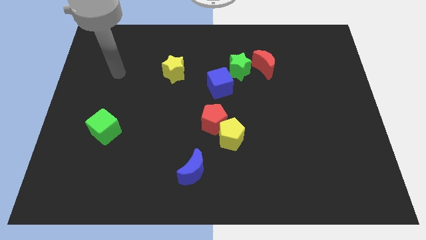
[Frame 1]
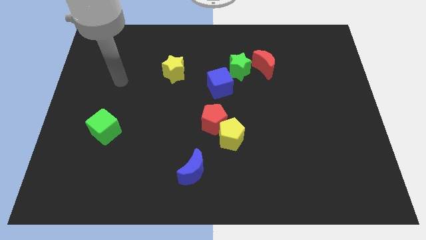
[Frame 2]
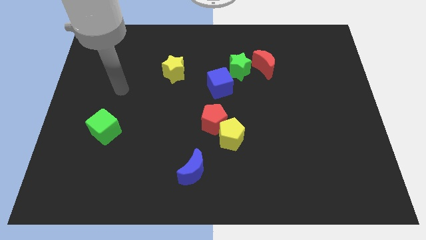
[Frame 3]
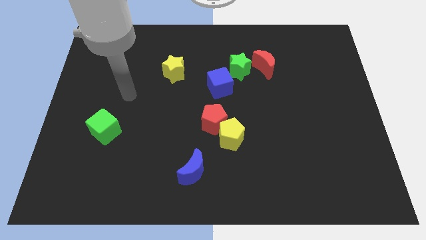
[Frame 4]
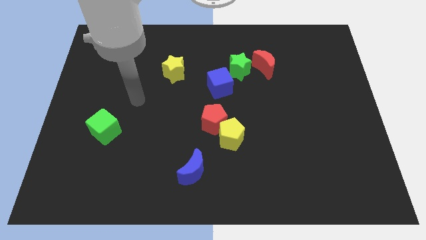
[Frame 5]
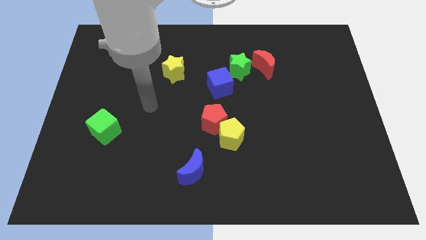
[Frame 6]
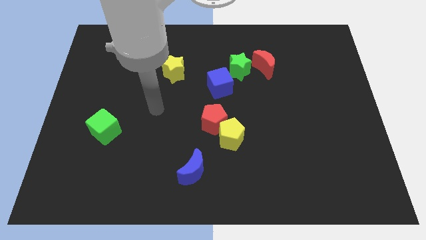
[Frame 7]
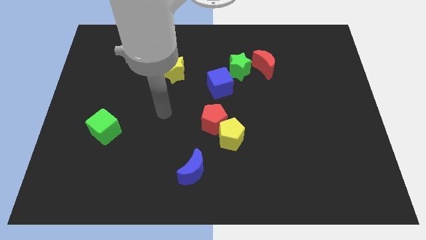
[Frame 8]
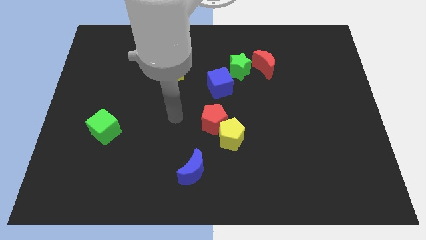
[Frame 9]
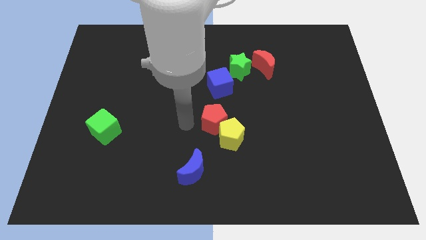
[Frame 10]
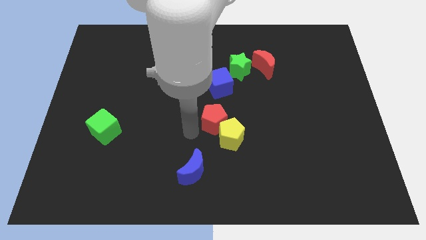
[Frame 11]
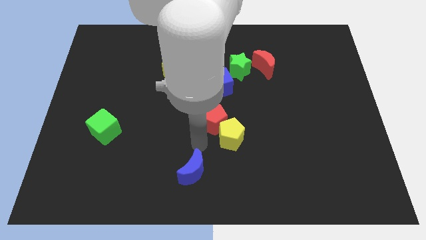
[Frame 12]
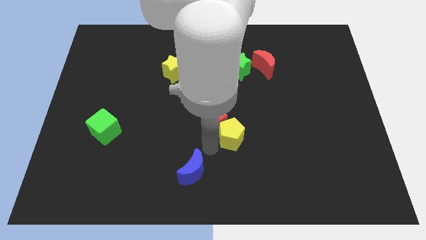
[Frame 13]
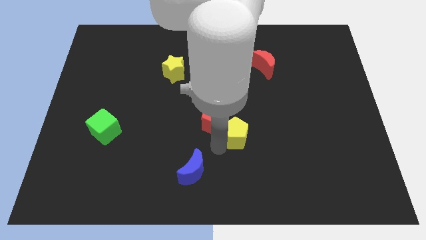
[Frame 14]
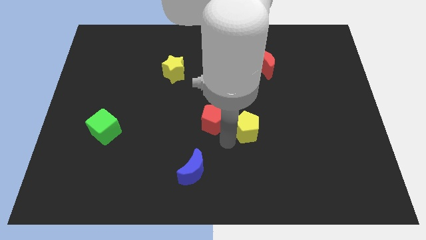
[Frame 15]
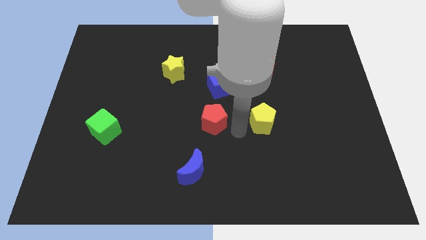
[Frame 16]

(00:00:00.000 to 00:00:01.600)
pull the red pentagon apart from the yellow pentagon

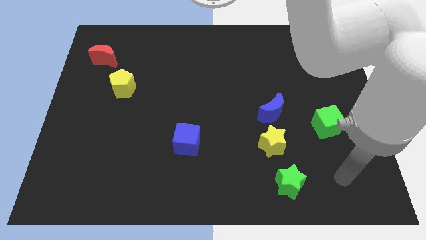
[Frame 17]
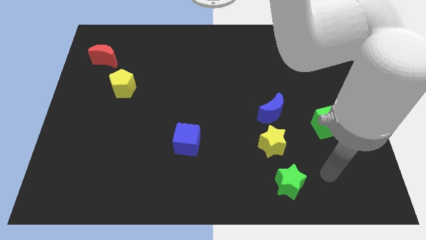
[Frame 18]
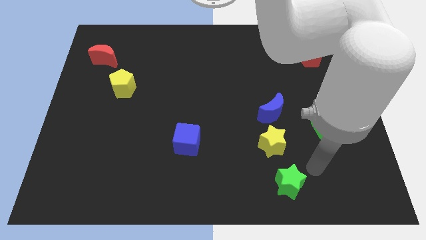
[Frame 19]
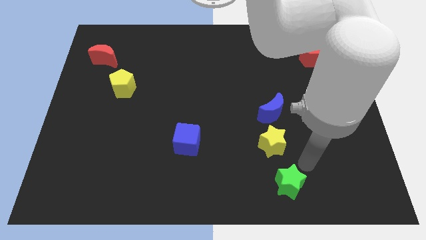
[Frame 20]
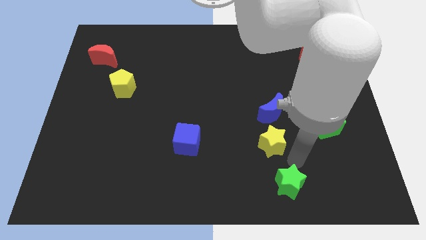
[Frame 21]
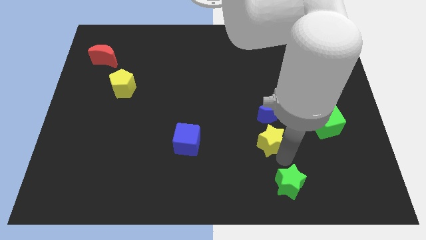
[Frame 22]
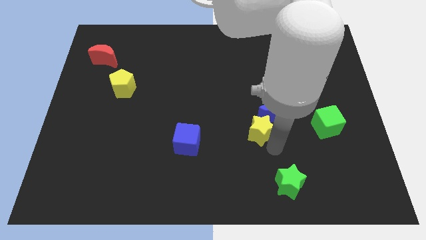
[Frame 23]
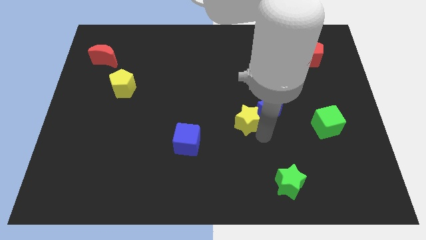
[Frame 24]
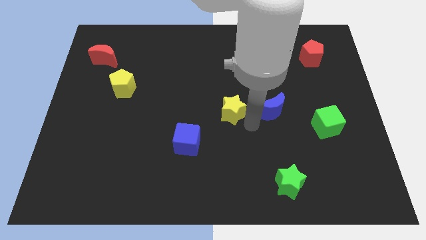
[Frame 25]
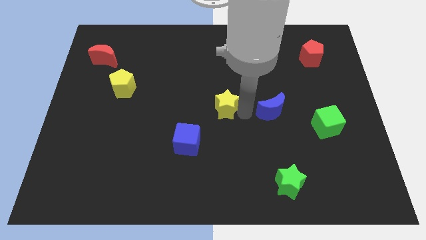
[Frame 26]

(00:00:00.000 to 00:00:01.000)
separate the blue moon from the yellow star

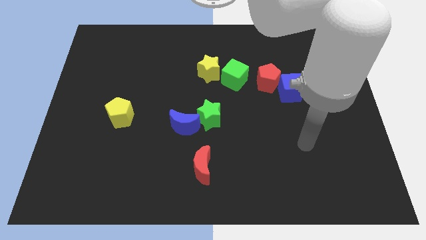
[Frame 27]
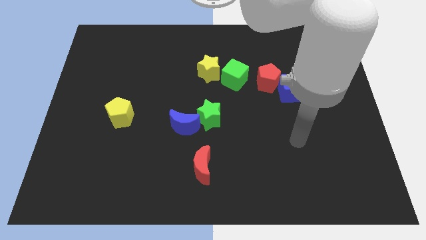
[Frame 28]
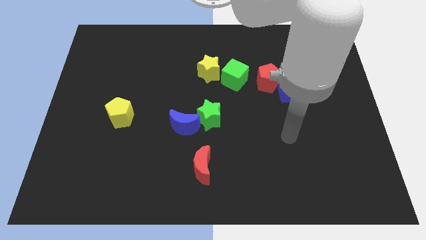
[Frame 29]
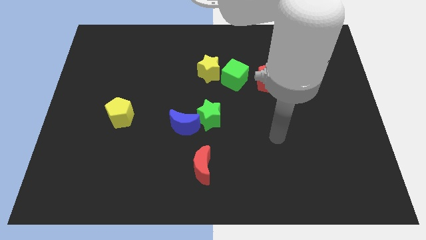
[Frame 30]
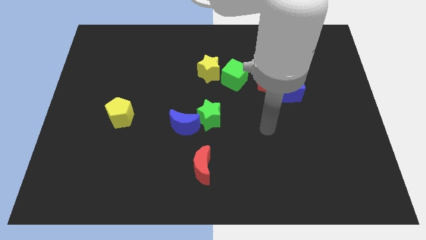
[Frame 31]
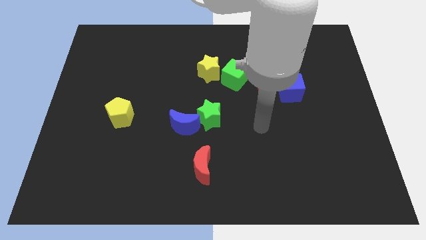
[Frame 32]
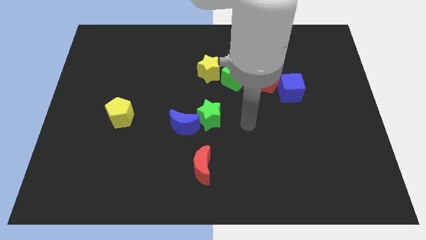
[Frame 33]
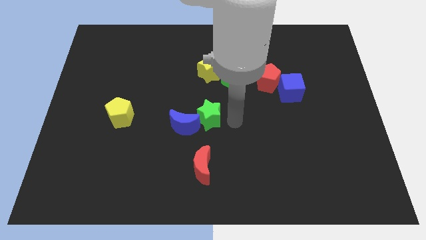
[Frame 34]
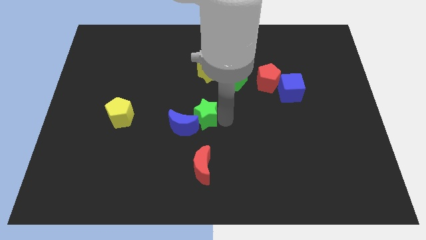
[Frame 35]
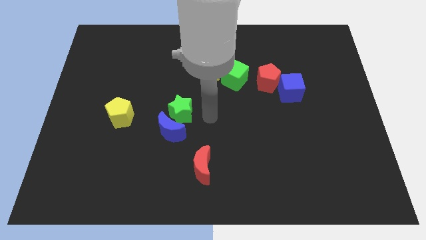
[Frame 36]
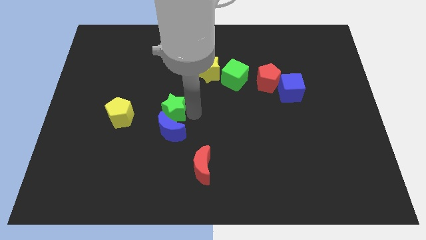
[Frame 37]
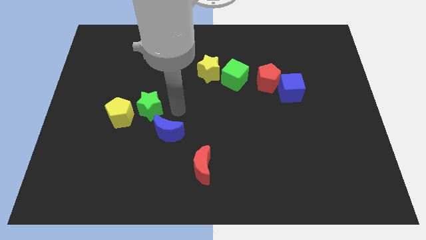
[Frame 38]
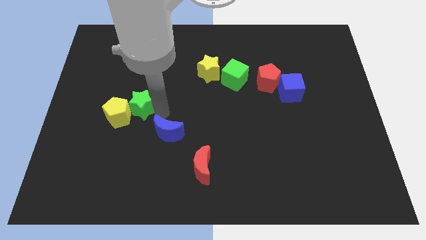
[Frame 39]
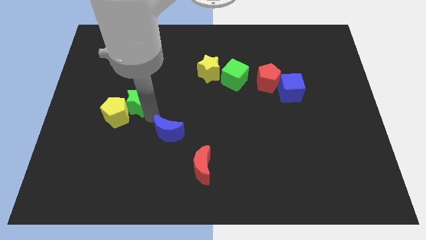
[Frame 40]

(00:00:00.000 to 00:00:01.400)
separate the blue moon from the green star

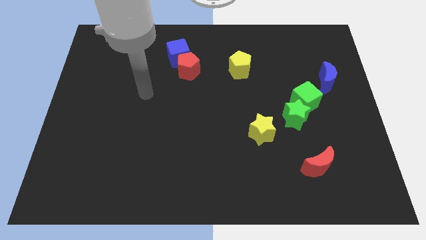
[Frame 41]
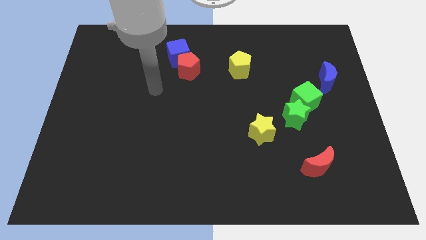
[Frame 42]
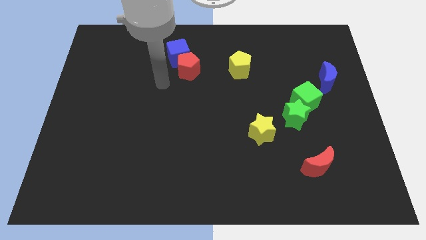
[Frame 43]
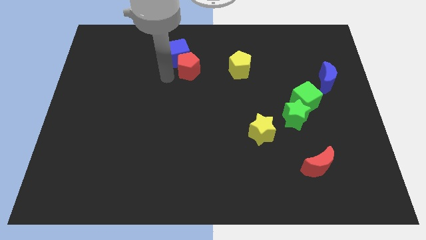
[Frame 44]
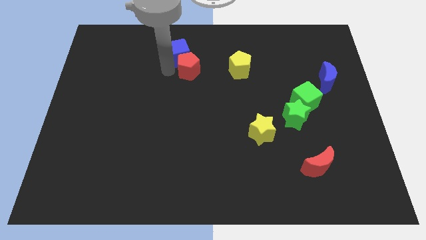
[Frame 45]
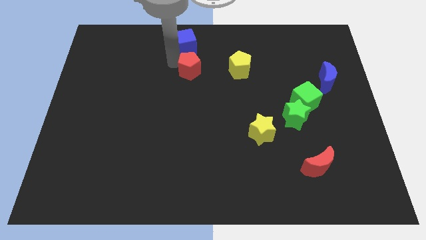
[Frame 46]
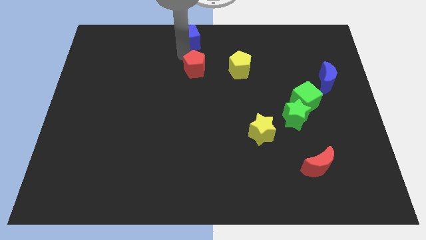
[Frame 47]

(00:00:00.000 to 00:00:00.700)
separate the red pentagon from the blue cube

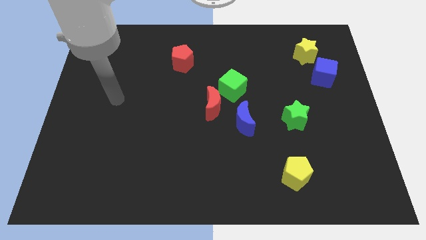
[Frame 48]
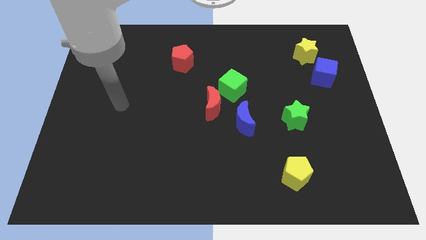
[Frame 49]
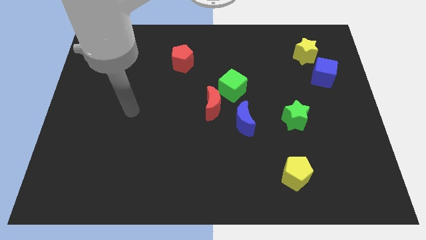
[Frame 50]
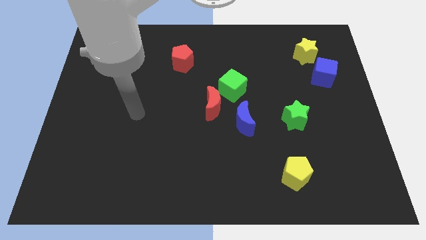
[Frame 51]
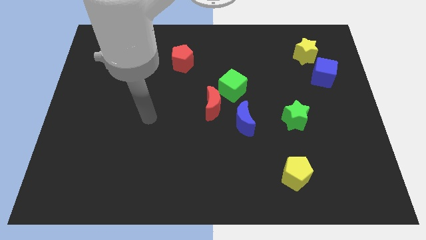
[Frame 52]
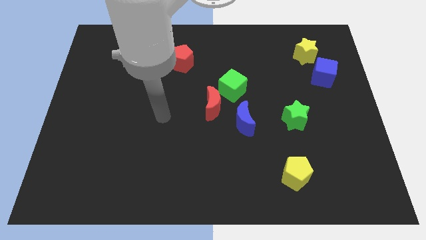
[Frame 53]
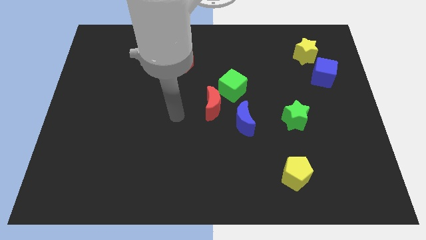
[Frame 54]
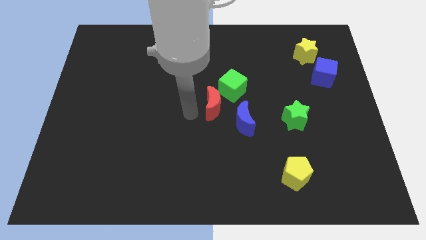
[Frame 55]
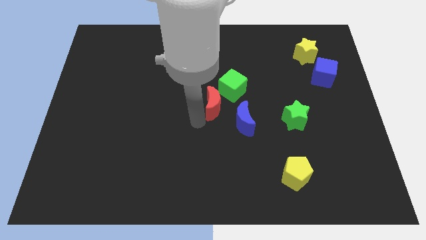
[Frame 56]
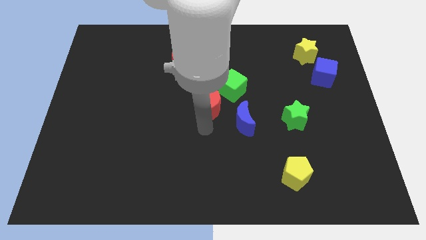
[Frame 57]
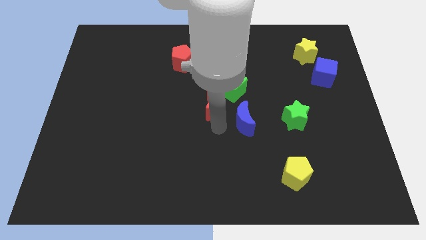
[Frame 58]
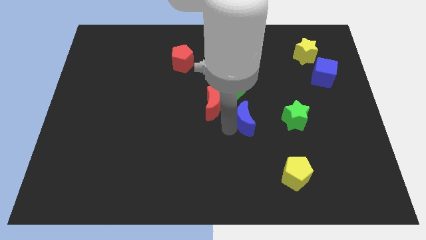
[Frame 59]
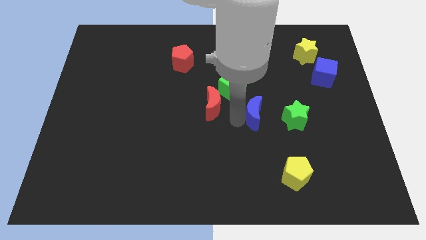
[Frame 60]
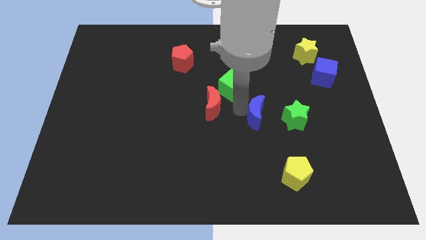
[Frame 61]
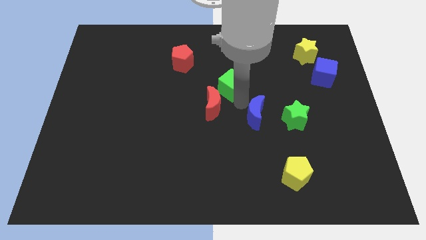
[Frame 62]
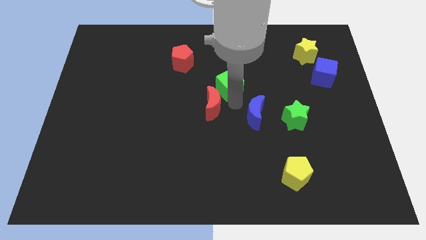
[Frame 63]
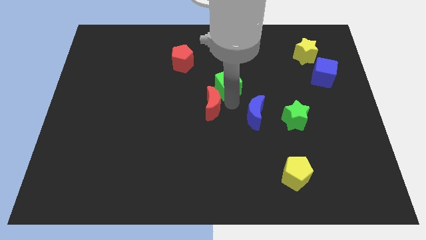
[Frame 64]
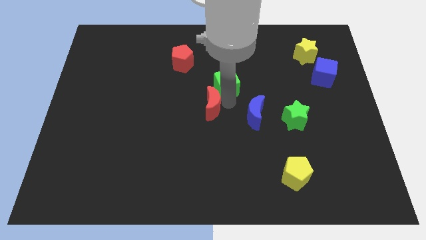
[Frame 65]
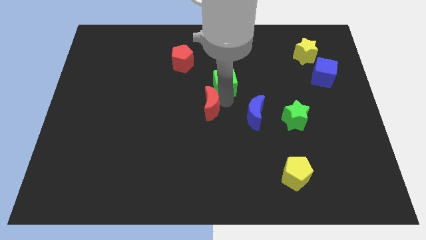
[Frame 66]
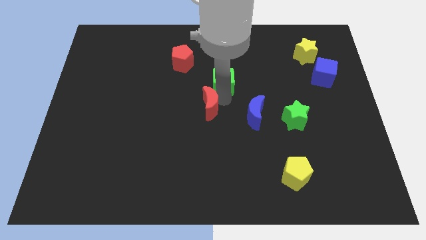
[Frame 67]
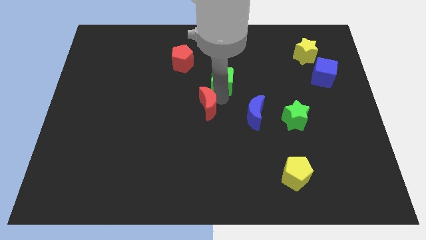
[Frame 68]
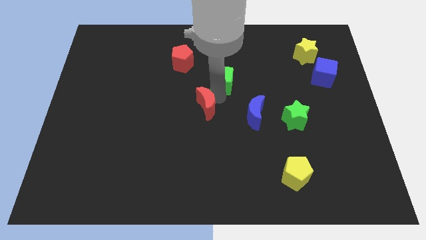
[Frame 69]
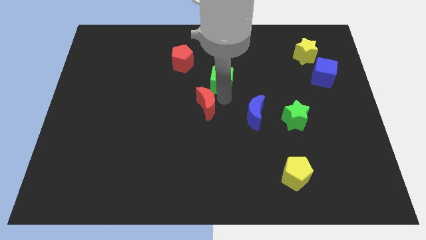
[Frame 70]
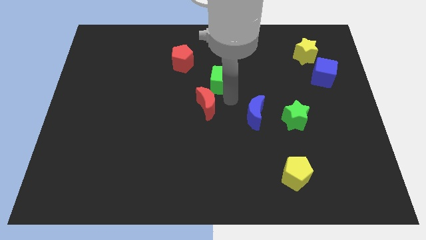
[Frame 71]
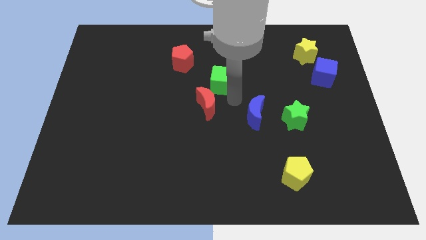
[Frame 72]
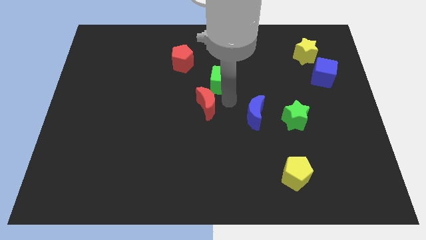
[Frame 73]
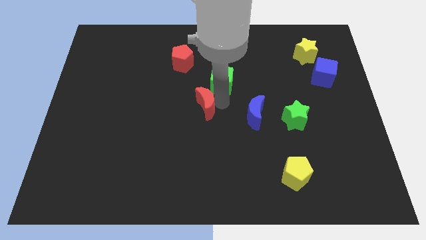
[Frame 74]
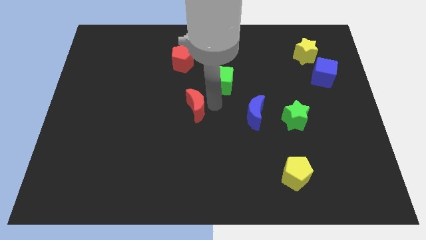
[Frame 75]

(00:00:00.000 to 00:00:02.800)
separate the red moon from the green cube and blue moon

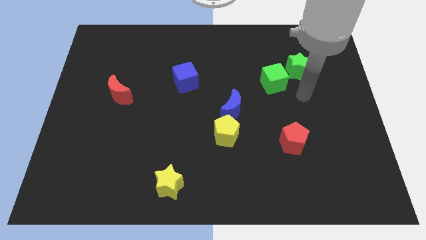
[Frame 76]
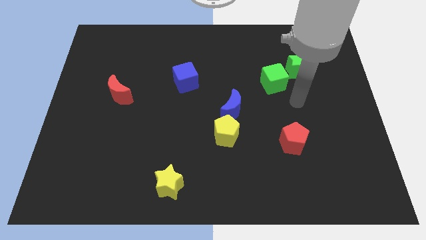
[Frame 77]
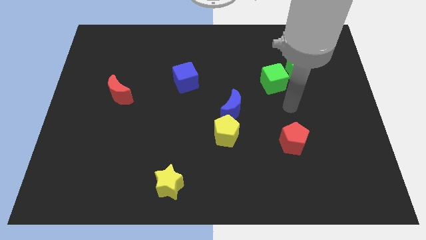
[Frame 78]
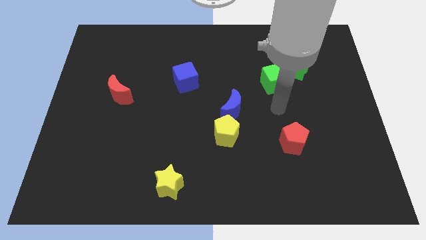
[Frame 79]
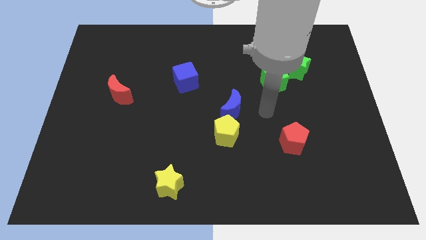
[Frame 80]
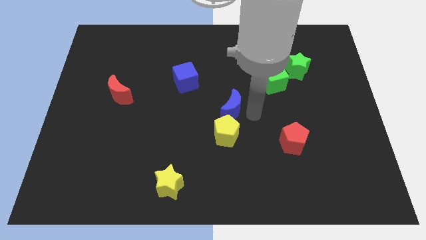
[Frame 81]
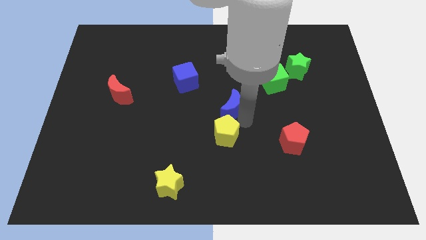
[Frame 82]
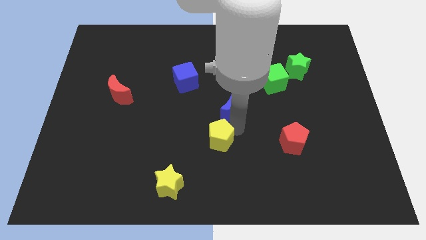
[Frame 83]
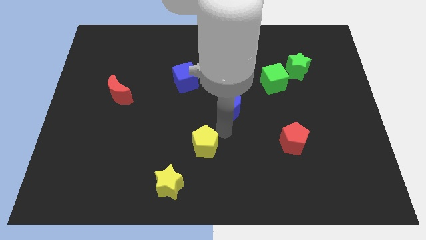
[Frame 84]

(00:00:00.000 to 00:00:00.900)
pull the blue moon apart from the yellow pentagon

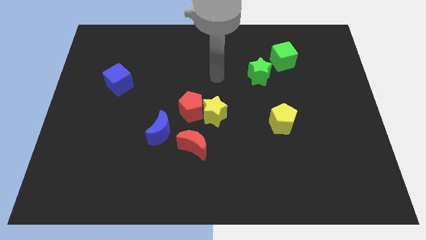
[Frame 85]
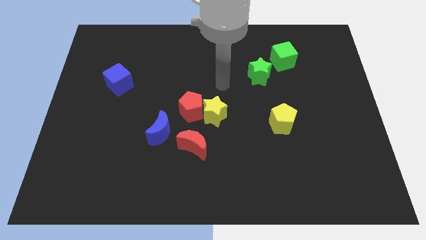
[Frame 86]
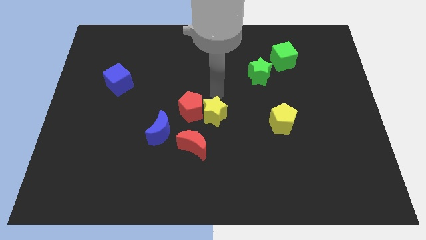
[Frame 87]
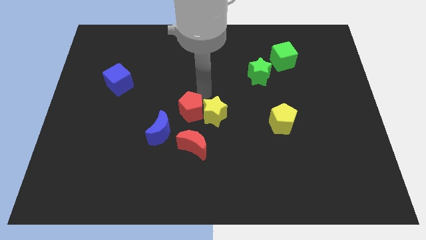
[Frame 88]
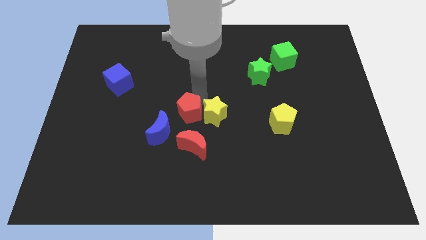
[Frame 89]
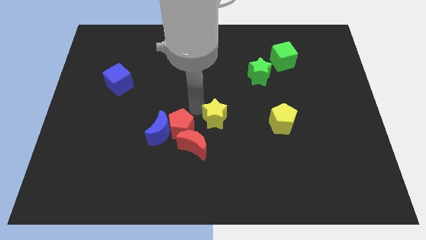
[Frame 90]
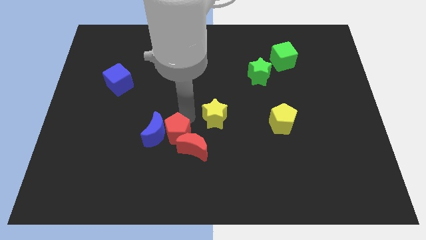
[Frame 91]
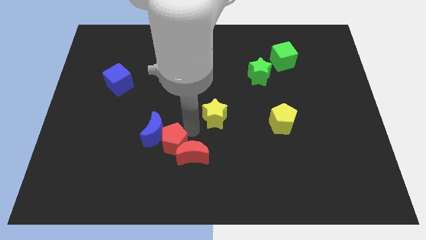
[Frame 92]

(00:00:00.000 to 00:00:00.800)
pull the yellow star apart from the red pentagon and red moon
